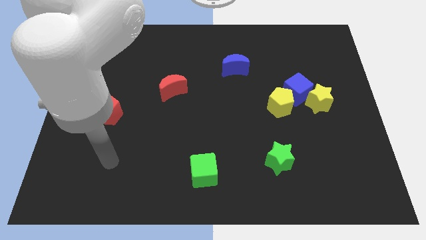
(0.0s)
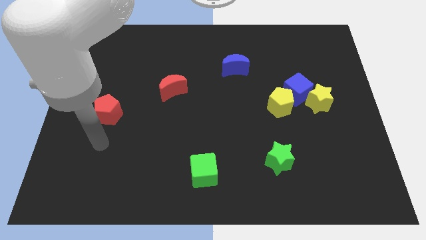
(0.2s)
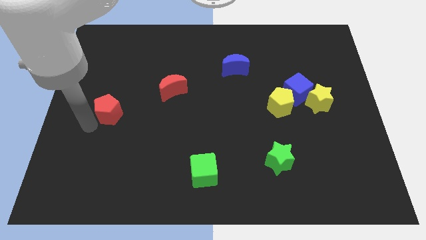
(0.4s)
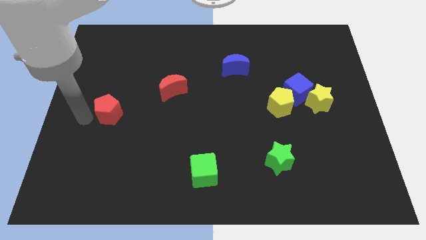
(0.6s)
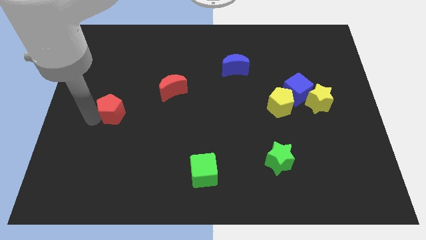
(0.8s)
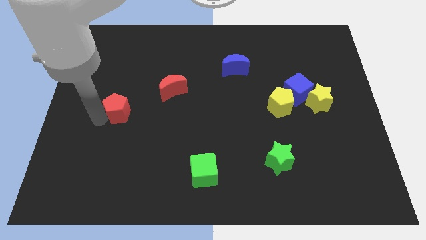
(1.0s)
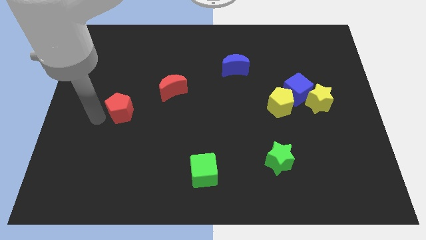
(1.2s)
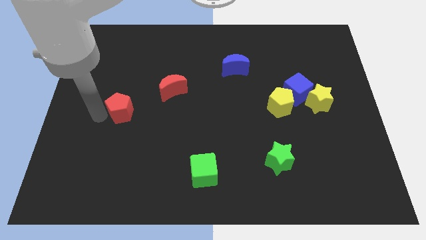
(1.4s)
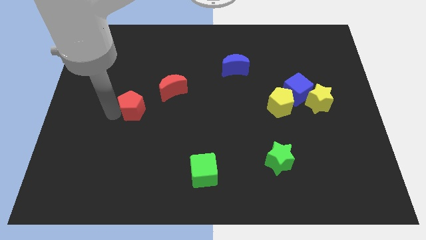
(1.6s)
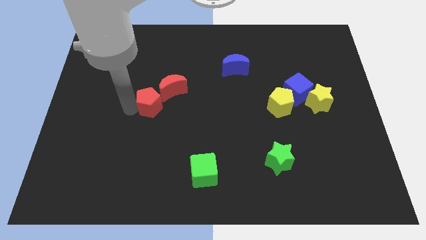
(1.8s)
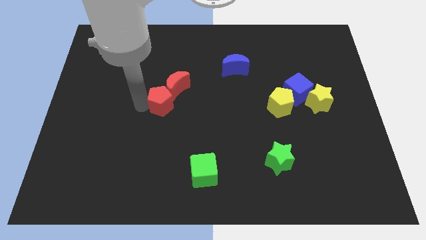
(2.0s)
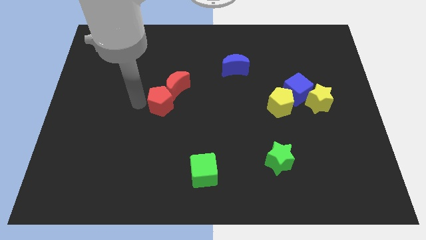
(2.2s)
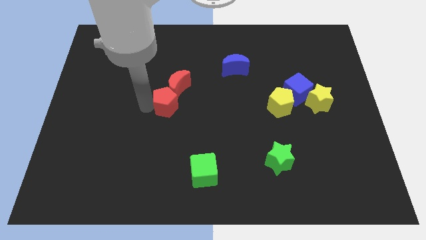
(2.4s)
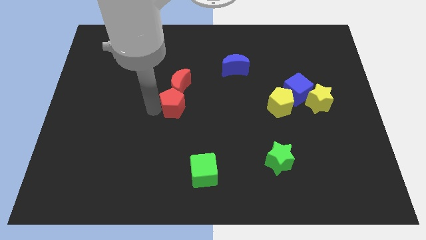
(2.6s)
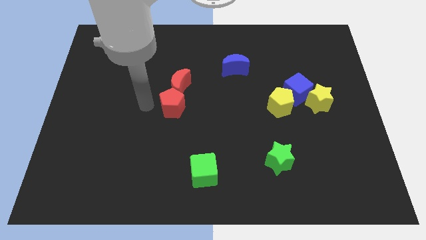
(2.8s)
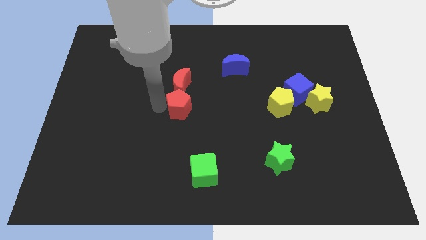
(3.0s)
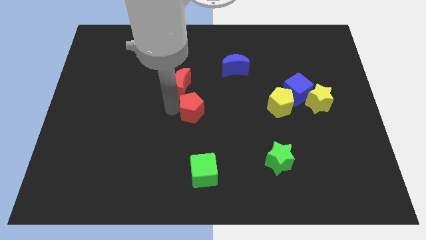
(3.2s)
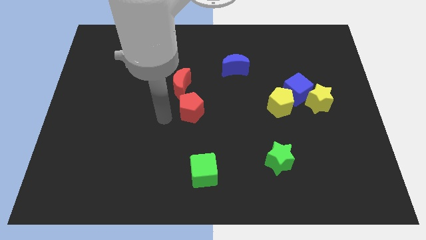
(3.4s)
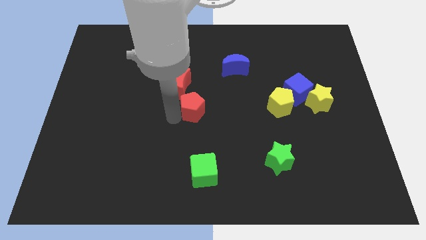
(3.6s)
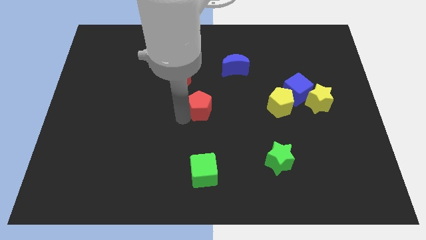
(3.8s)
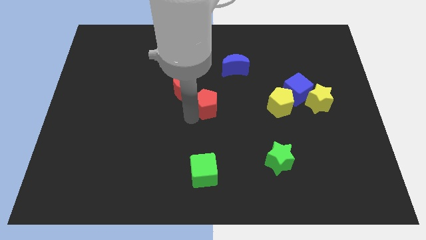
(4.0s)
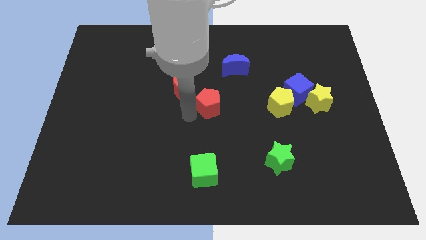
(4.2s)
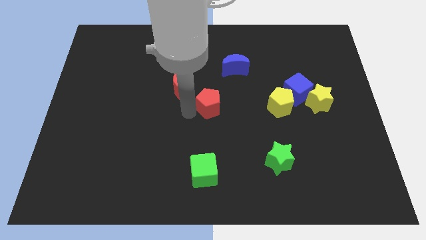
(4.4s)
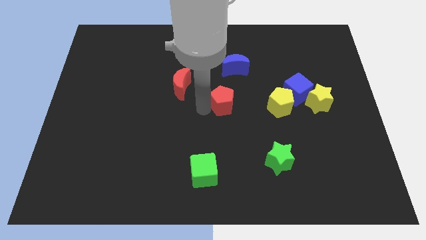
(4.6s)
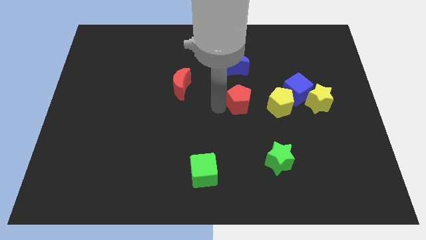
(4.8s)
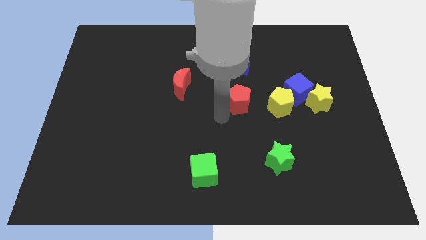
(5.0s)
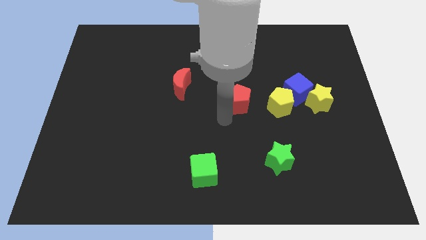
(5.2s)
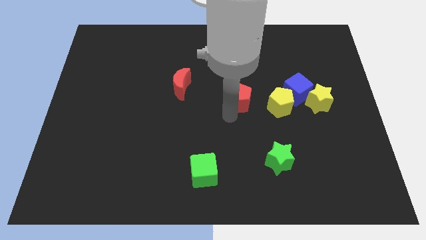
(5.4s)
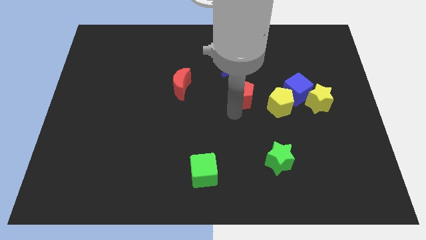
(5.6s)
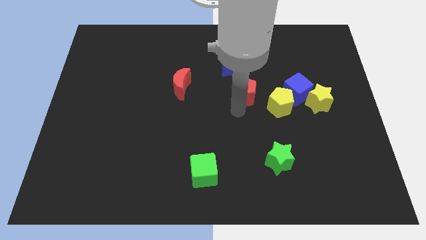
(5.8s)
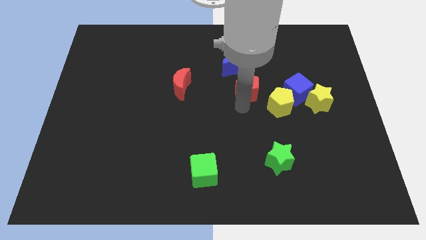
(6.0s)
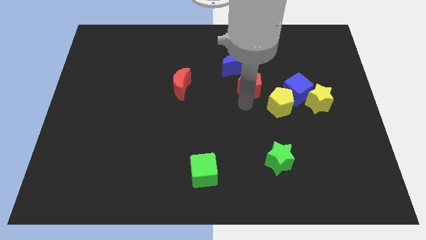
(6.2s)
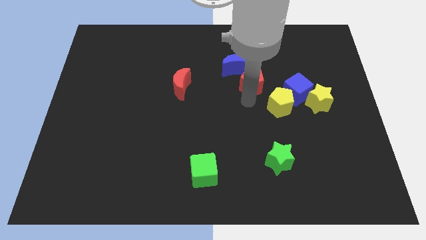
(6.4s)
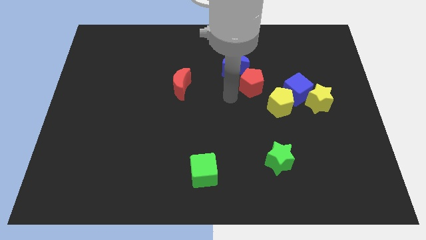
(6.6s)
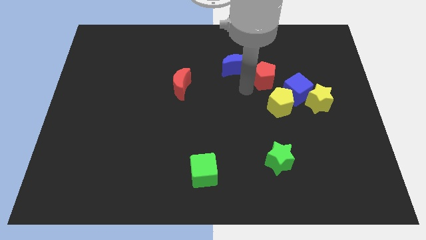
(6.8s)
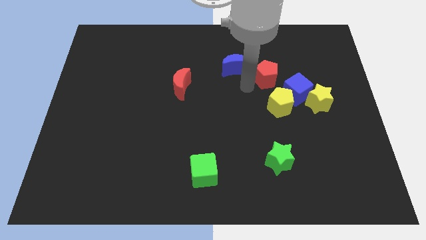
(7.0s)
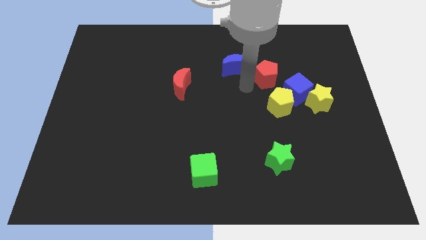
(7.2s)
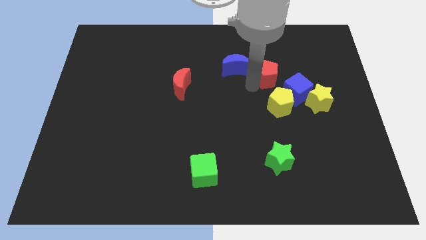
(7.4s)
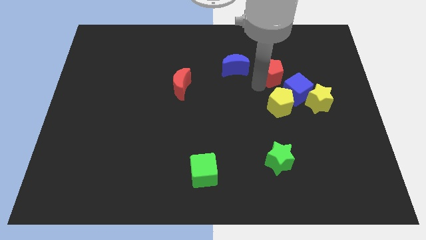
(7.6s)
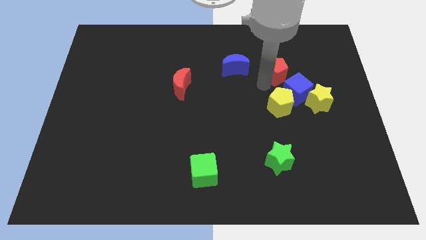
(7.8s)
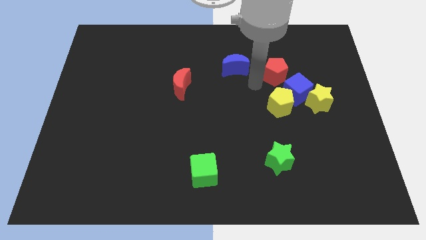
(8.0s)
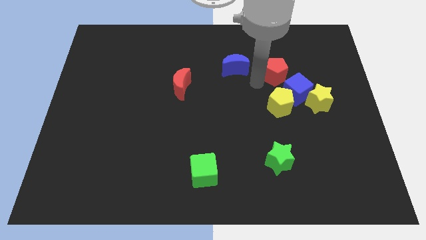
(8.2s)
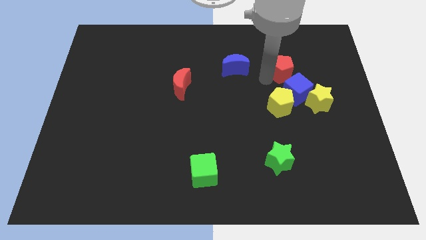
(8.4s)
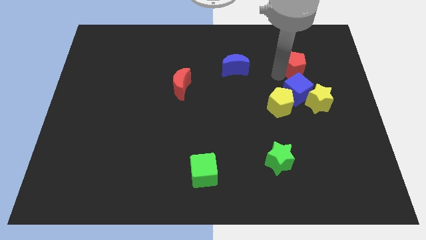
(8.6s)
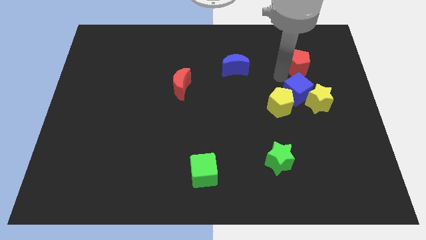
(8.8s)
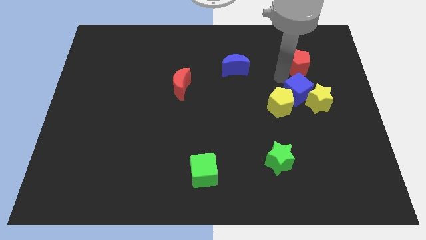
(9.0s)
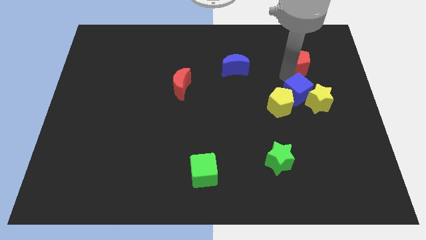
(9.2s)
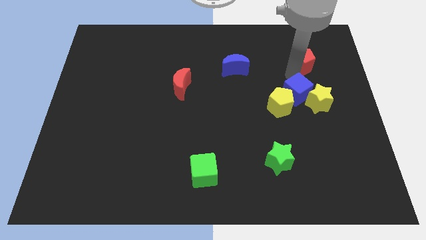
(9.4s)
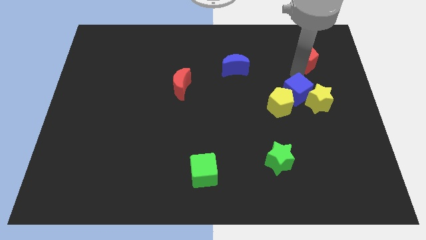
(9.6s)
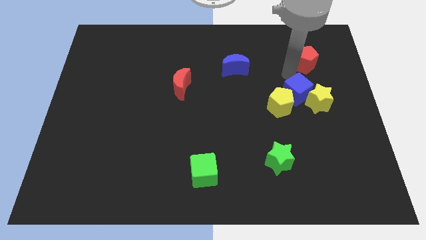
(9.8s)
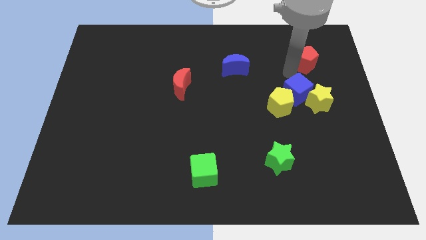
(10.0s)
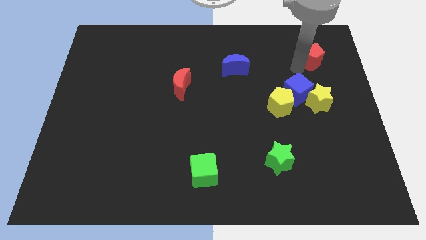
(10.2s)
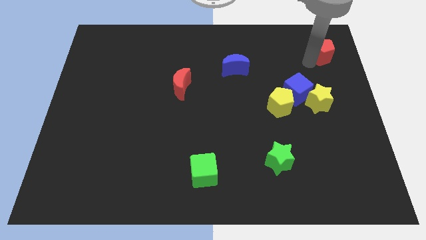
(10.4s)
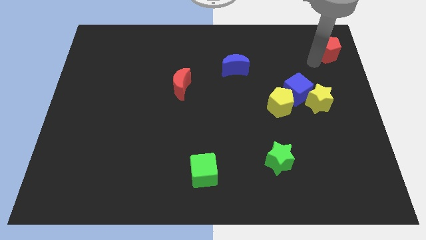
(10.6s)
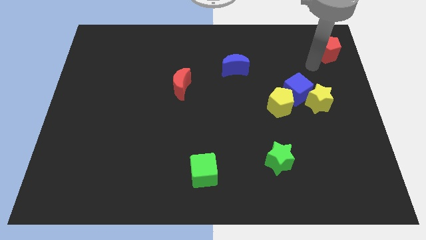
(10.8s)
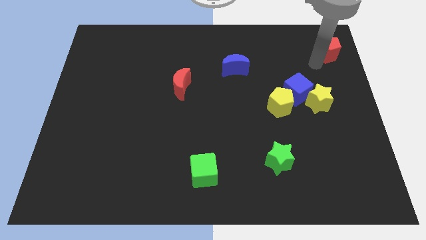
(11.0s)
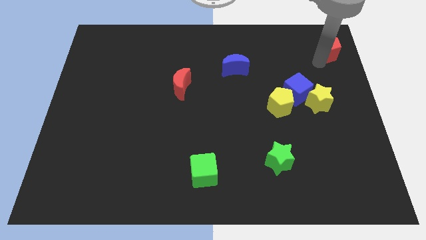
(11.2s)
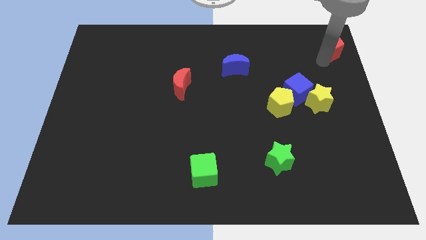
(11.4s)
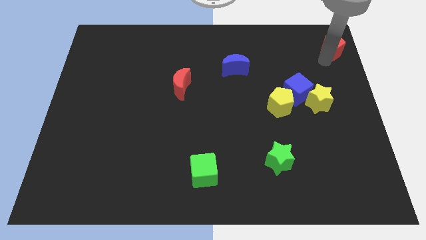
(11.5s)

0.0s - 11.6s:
put the red pentagon to the top right of the board

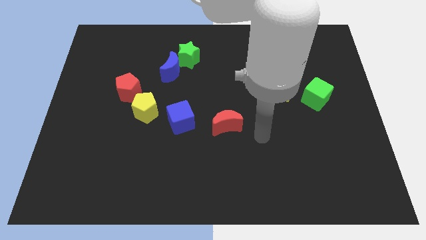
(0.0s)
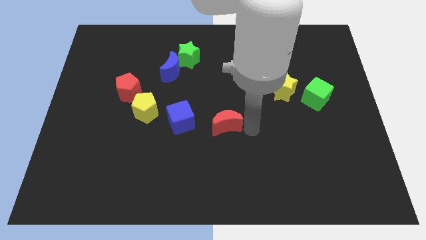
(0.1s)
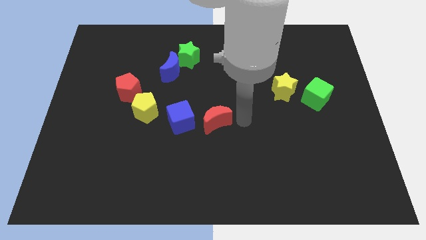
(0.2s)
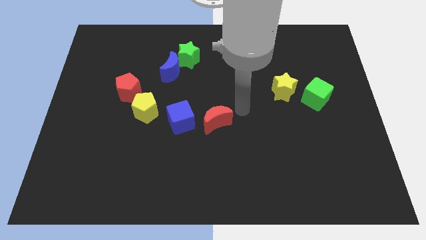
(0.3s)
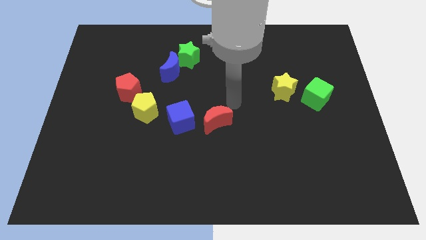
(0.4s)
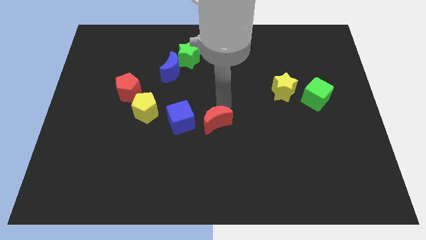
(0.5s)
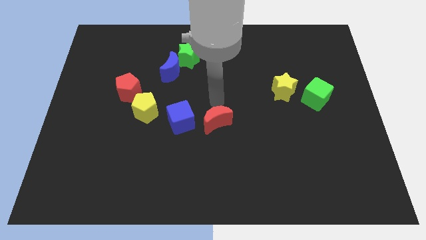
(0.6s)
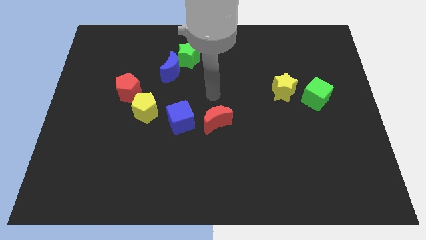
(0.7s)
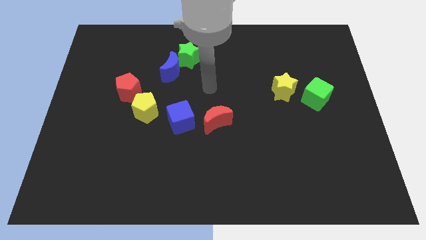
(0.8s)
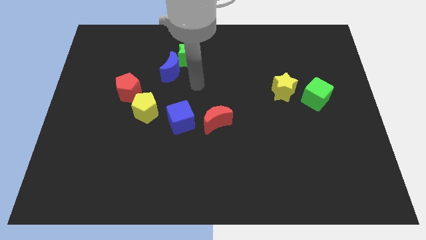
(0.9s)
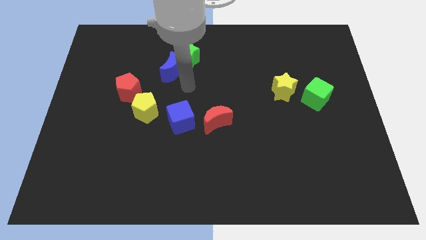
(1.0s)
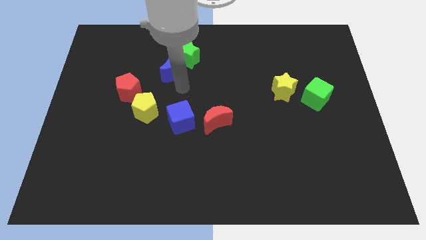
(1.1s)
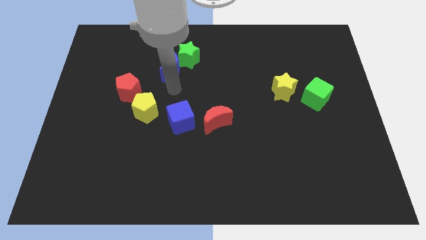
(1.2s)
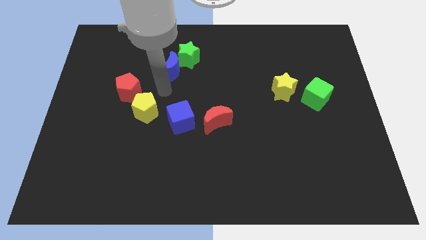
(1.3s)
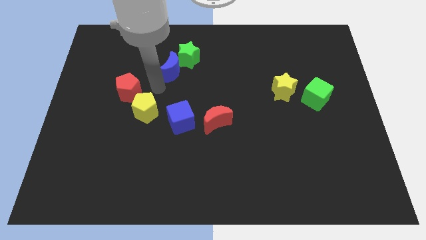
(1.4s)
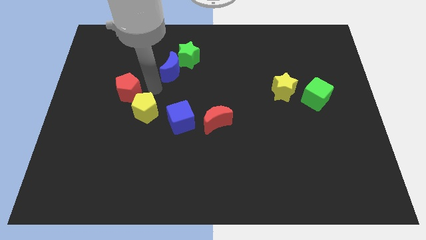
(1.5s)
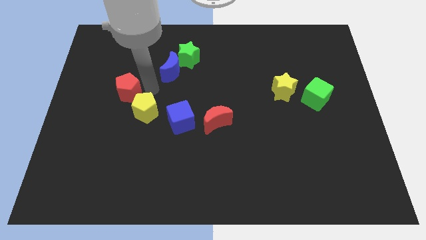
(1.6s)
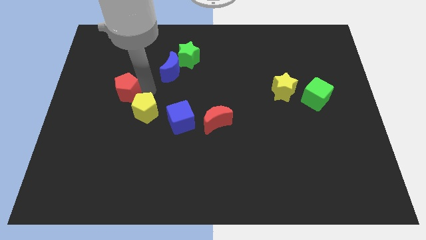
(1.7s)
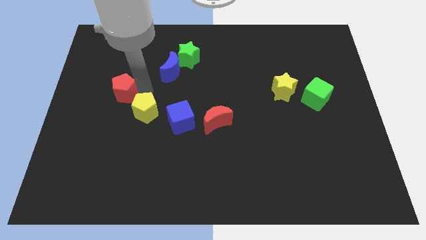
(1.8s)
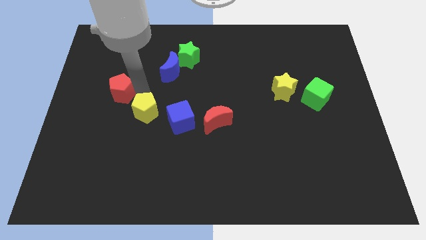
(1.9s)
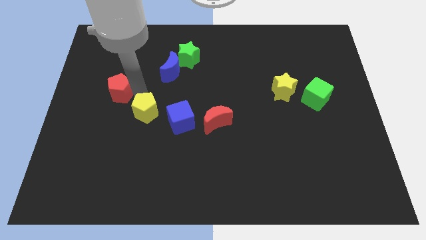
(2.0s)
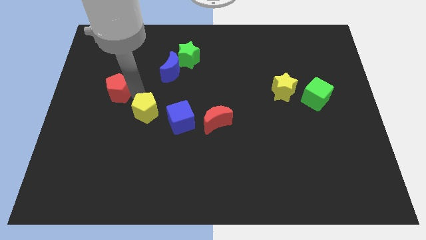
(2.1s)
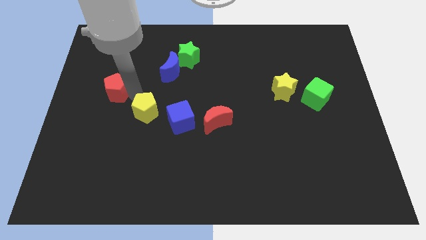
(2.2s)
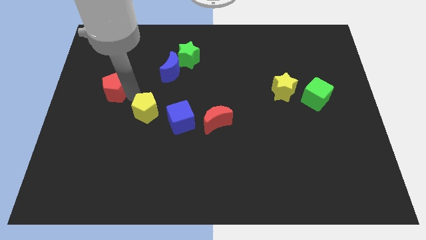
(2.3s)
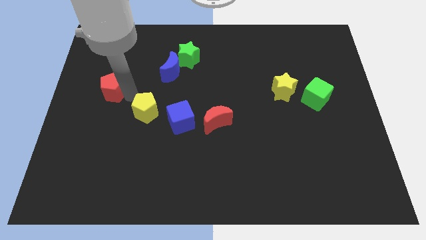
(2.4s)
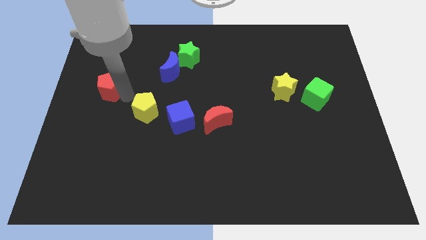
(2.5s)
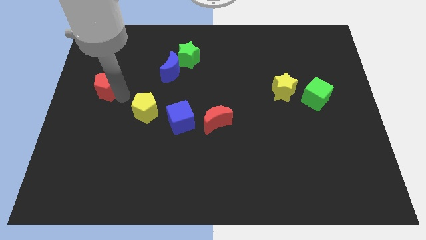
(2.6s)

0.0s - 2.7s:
put the red pentagon to the left side of the board
